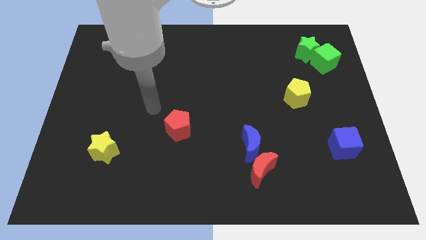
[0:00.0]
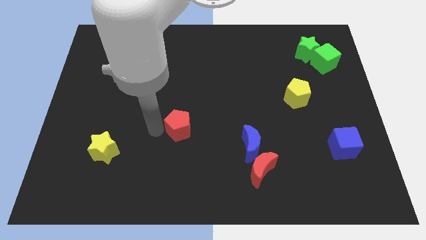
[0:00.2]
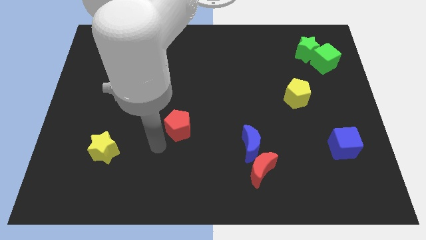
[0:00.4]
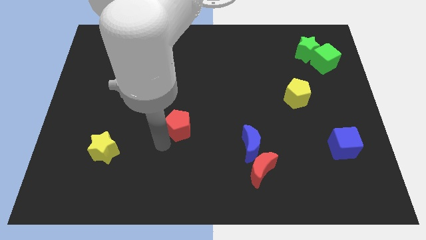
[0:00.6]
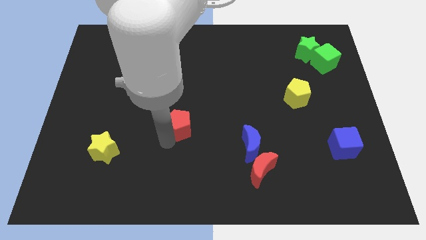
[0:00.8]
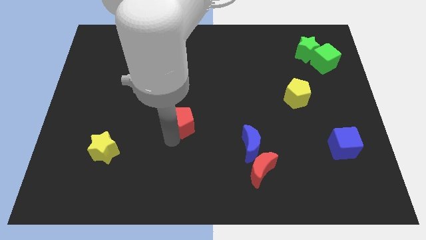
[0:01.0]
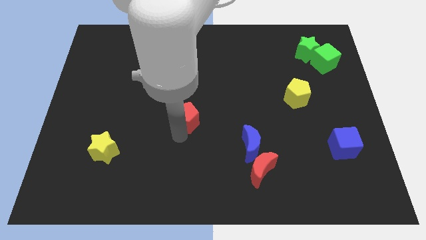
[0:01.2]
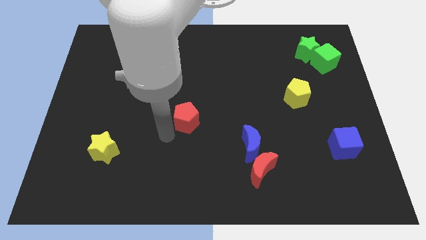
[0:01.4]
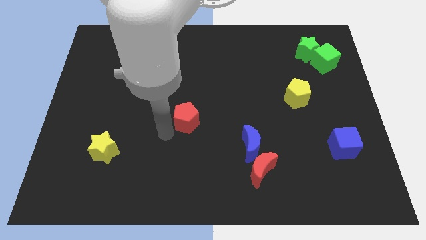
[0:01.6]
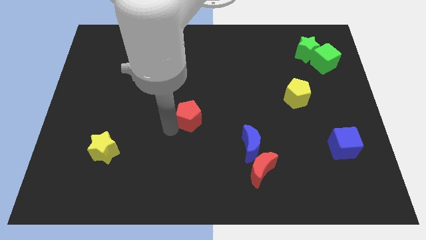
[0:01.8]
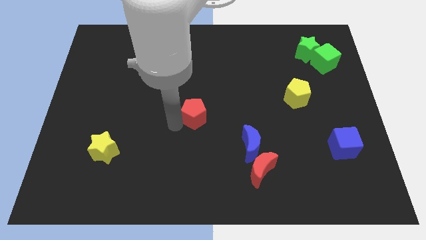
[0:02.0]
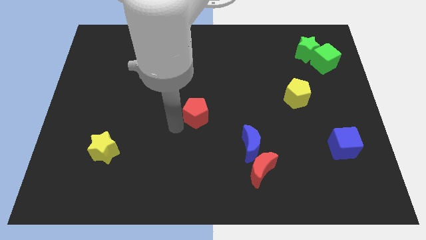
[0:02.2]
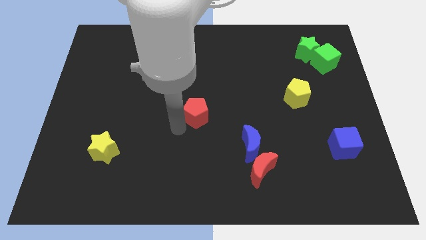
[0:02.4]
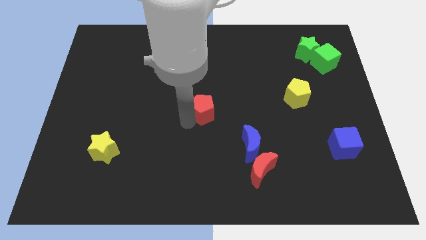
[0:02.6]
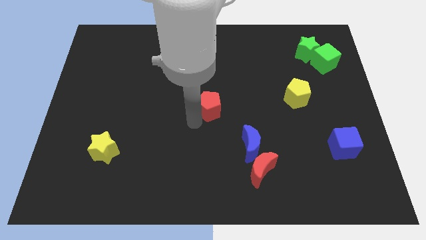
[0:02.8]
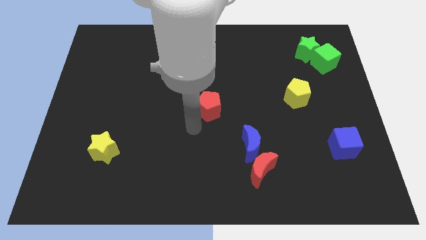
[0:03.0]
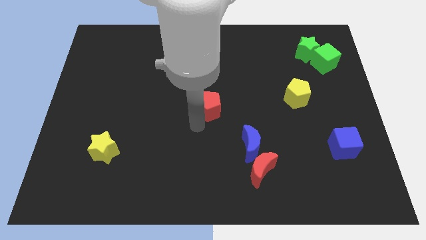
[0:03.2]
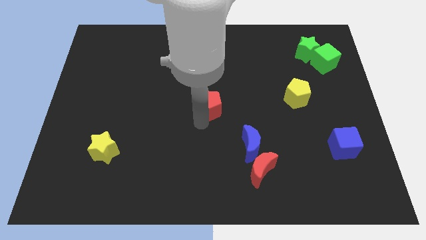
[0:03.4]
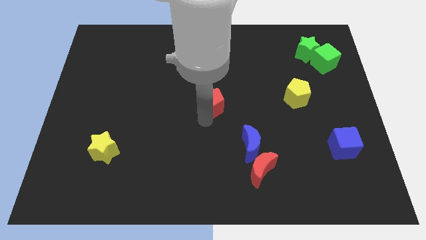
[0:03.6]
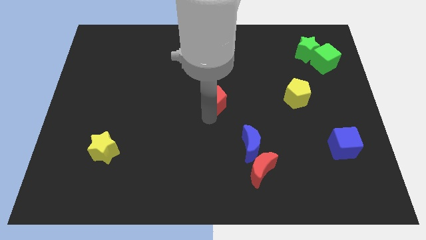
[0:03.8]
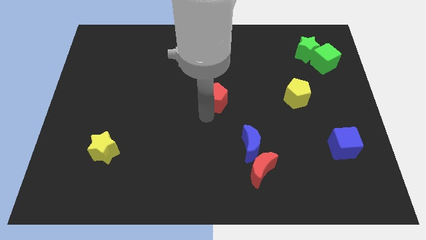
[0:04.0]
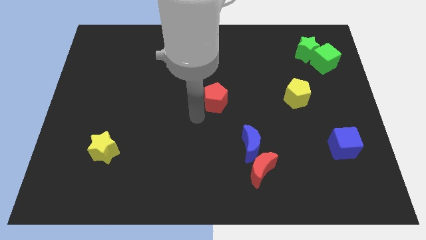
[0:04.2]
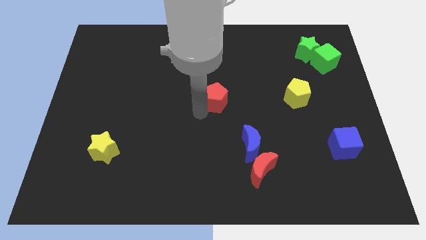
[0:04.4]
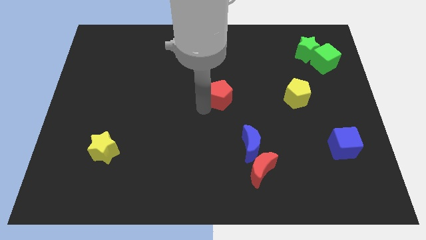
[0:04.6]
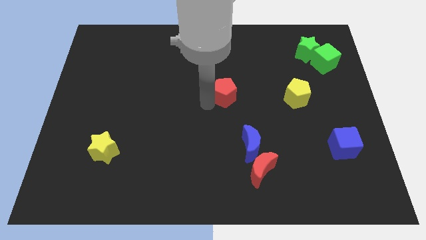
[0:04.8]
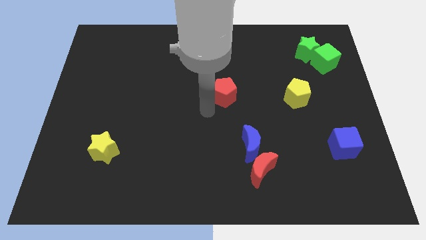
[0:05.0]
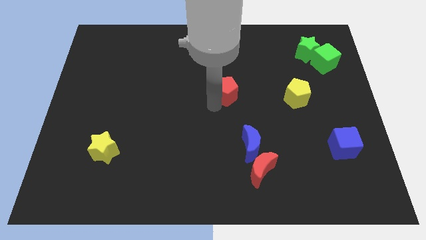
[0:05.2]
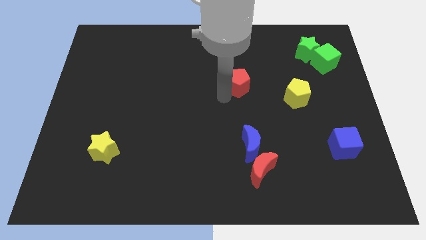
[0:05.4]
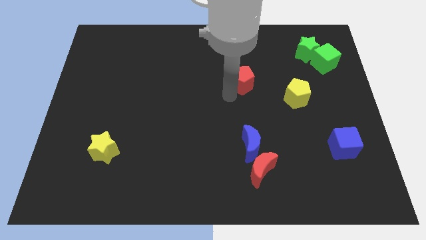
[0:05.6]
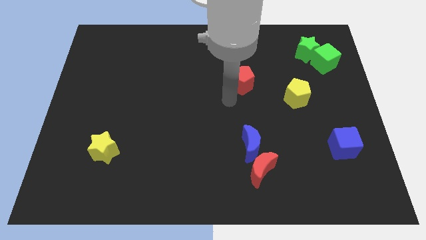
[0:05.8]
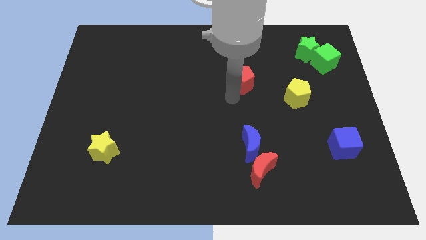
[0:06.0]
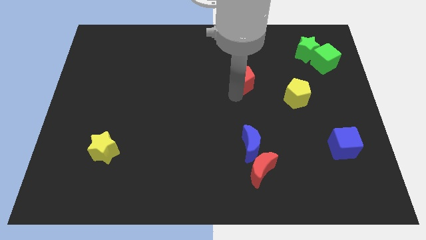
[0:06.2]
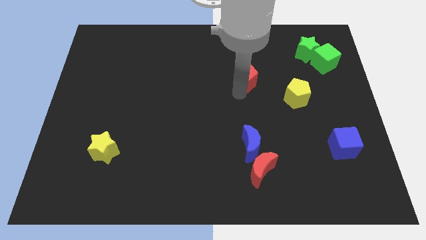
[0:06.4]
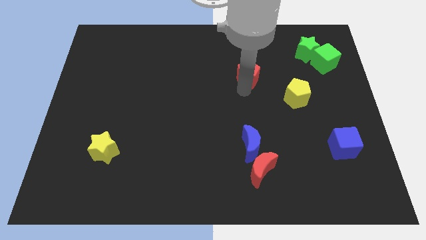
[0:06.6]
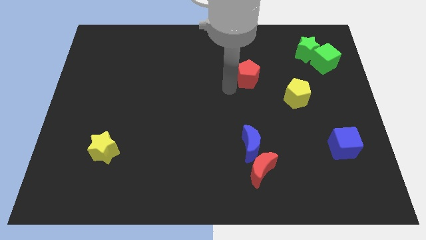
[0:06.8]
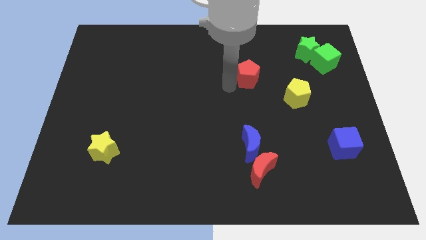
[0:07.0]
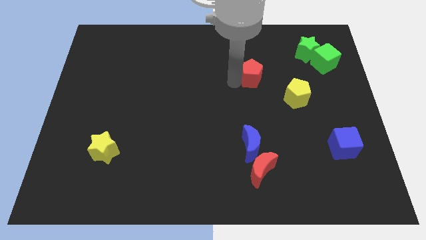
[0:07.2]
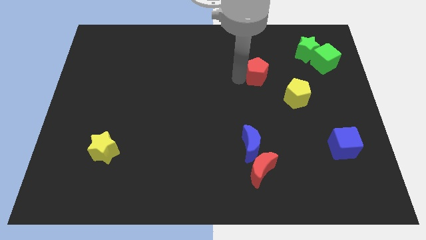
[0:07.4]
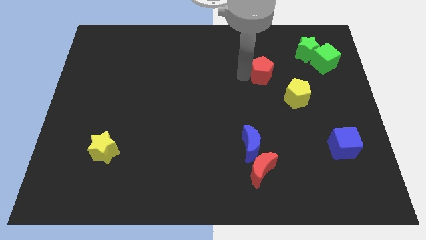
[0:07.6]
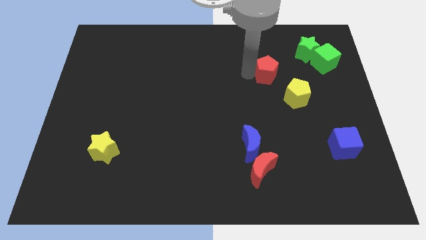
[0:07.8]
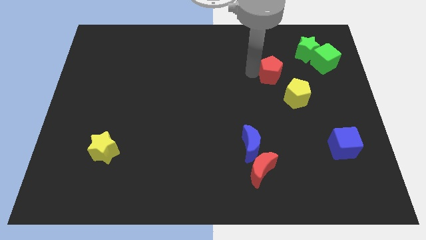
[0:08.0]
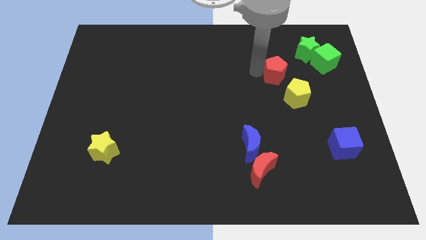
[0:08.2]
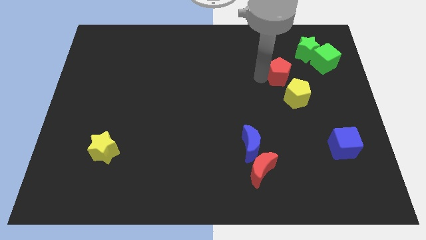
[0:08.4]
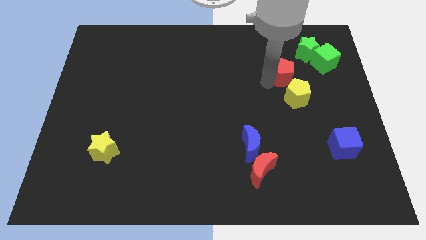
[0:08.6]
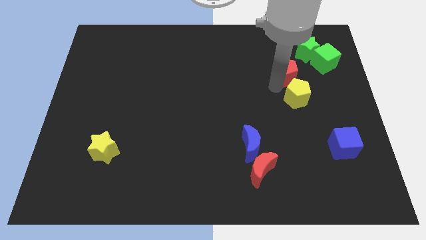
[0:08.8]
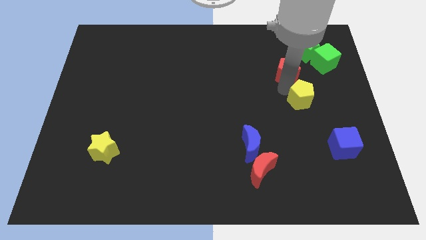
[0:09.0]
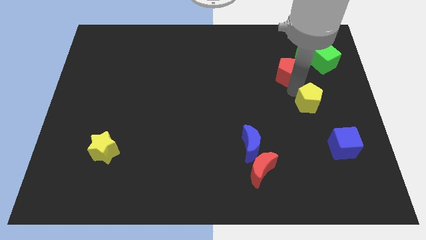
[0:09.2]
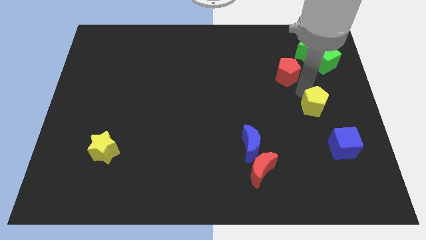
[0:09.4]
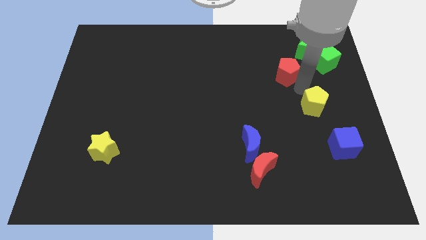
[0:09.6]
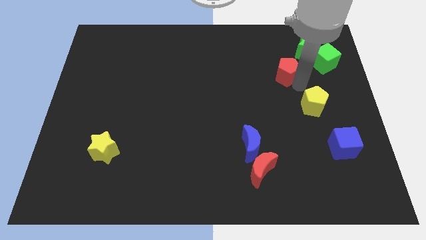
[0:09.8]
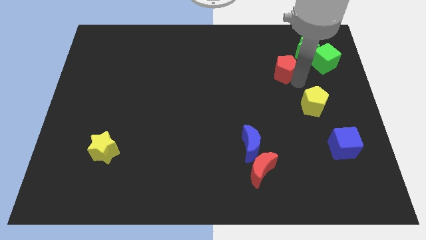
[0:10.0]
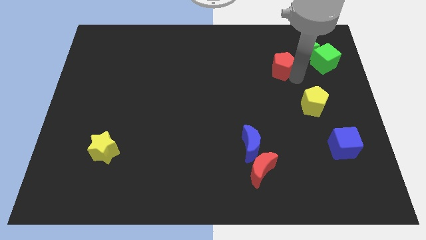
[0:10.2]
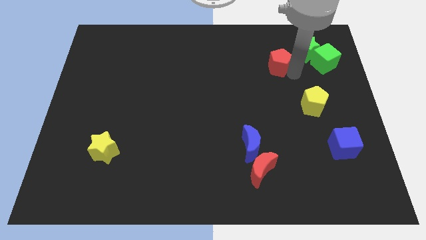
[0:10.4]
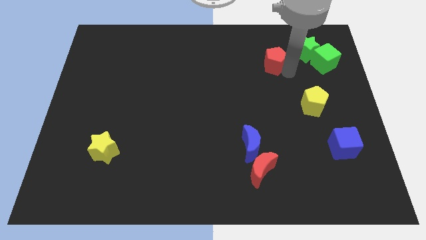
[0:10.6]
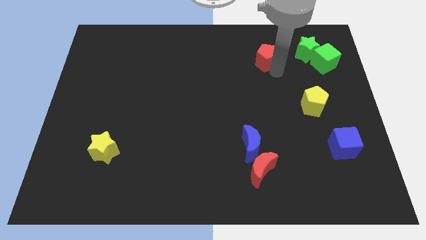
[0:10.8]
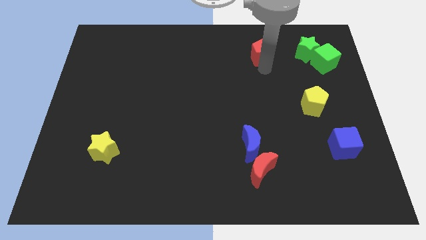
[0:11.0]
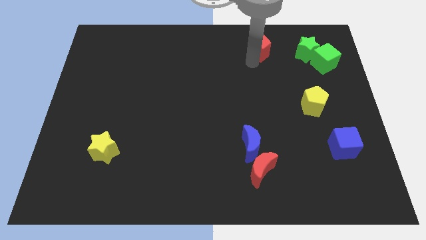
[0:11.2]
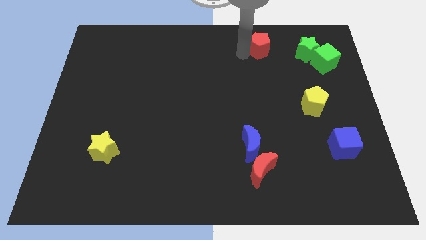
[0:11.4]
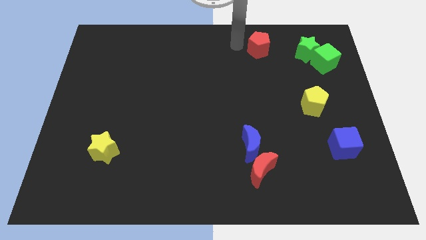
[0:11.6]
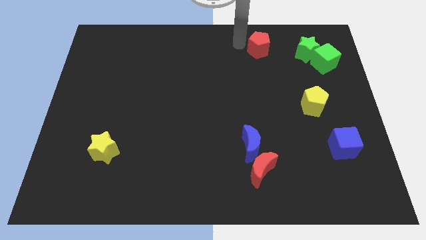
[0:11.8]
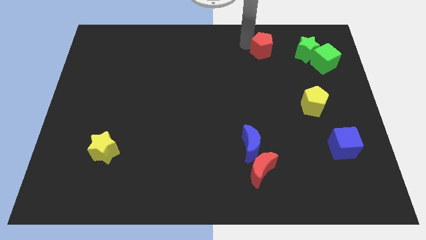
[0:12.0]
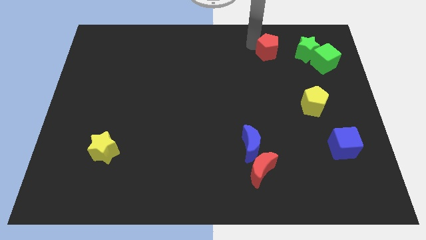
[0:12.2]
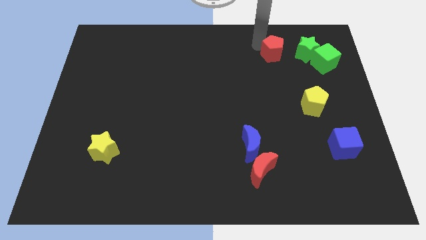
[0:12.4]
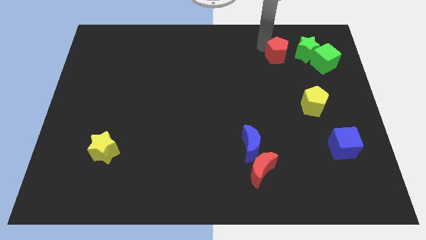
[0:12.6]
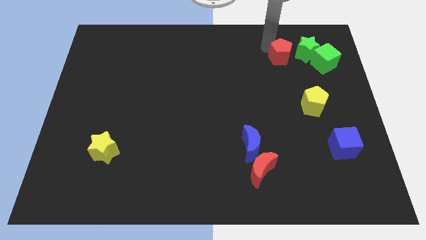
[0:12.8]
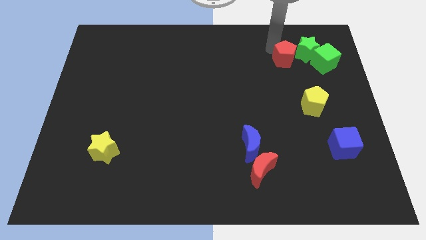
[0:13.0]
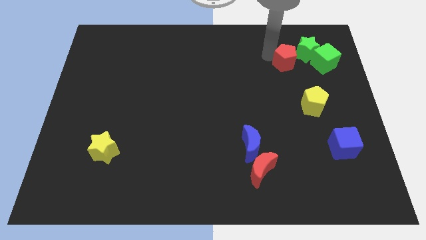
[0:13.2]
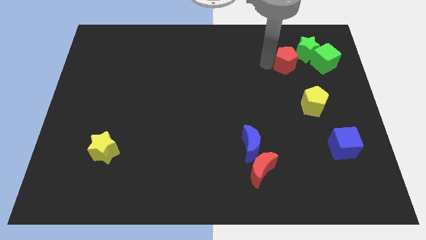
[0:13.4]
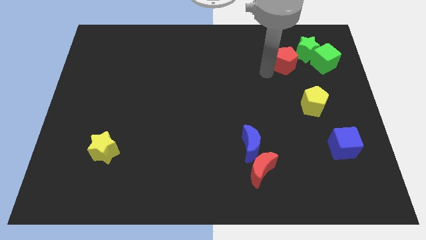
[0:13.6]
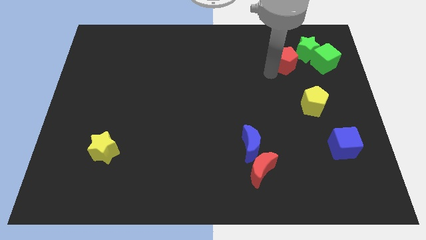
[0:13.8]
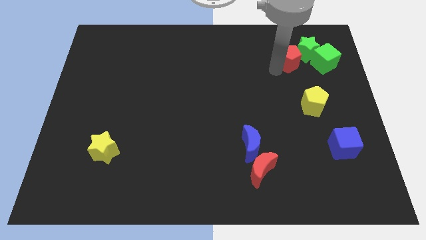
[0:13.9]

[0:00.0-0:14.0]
slide the red pentagon close to the green star

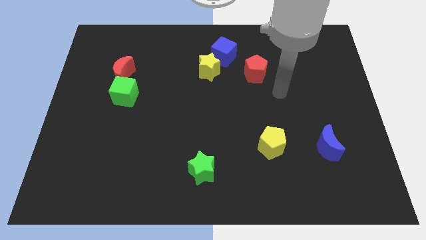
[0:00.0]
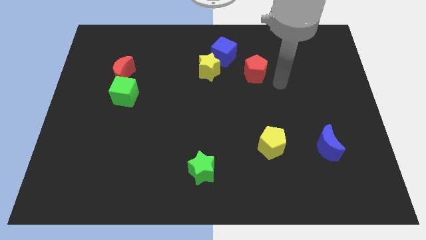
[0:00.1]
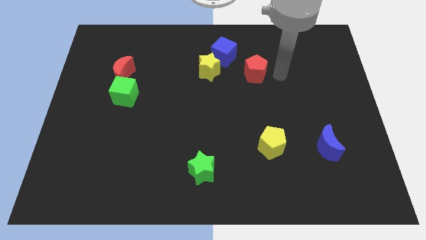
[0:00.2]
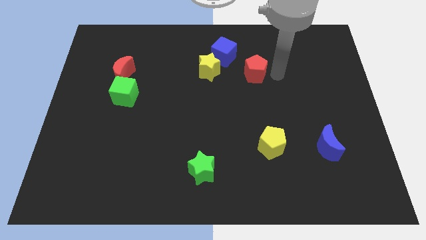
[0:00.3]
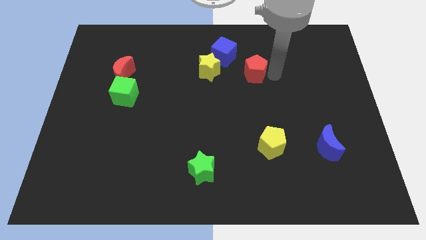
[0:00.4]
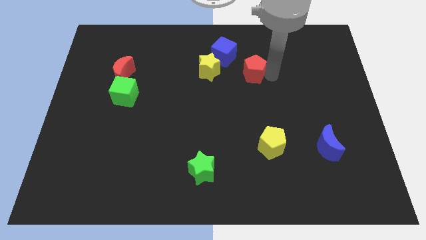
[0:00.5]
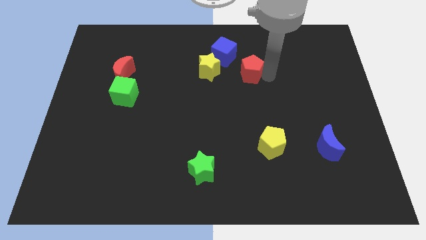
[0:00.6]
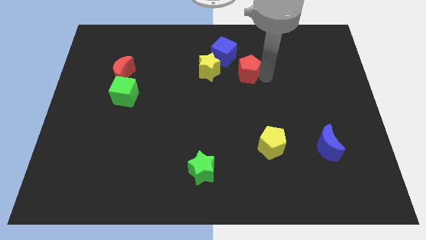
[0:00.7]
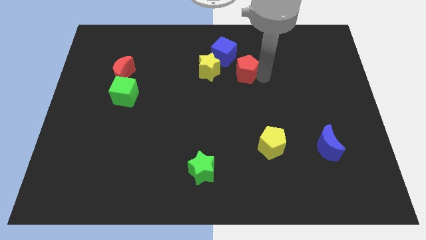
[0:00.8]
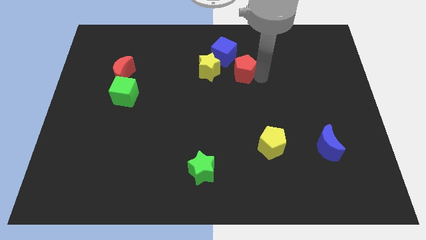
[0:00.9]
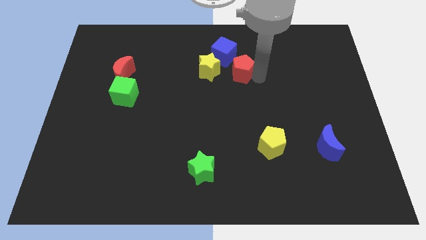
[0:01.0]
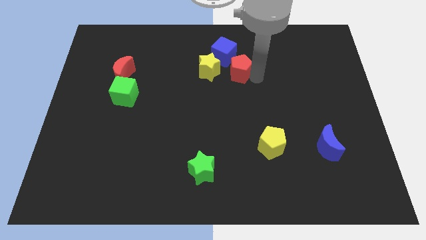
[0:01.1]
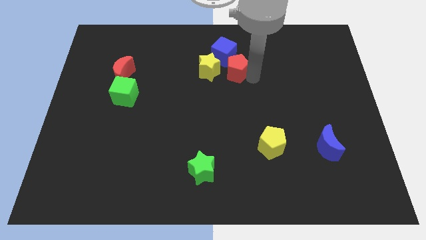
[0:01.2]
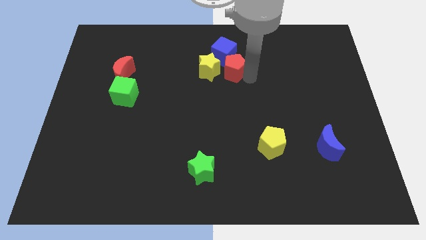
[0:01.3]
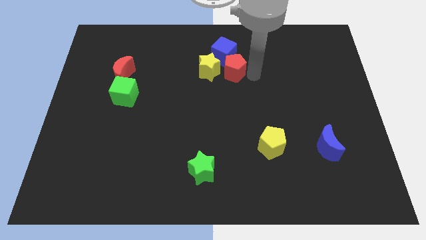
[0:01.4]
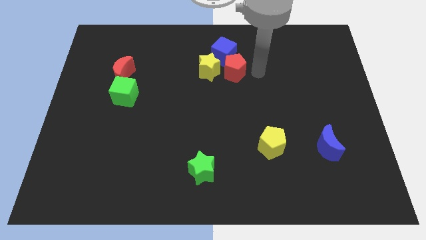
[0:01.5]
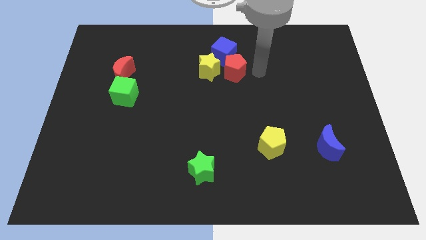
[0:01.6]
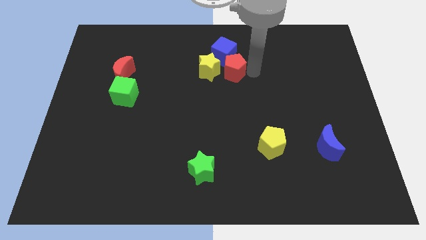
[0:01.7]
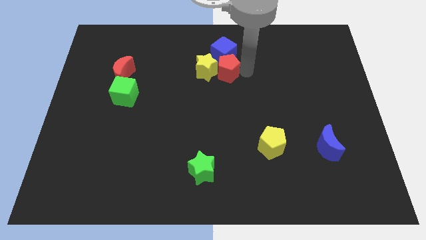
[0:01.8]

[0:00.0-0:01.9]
put the red pentagon close to the yellow star
